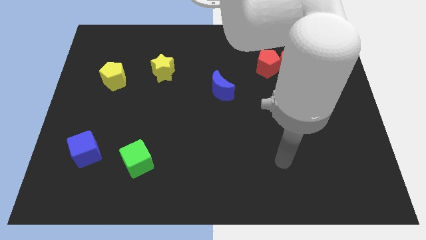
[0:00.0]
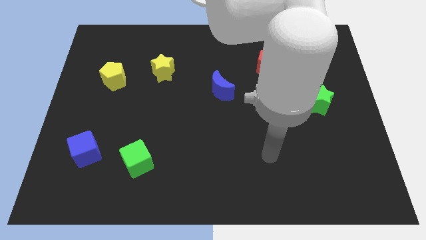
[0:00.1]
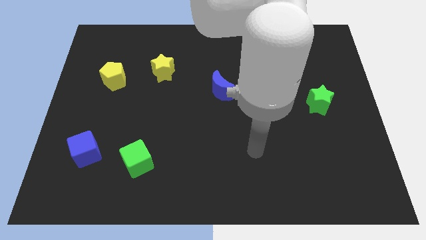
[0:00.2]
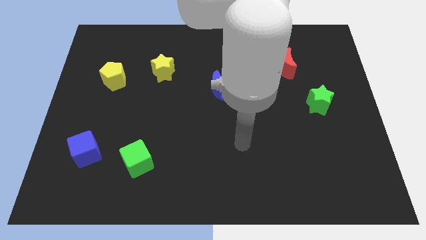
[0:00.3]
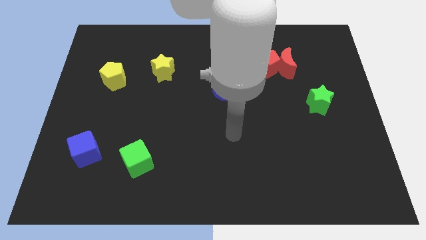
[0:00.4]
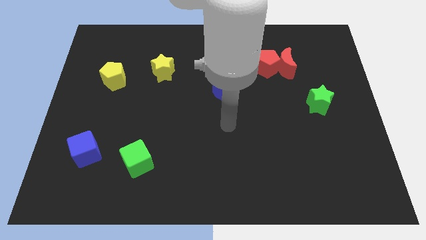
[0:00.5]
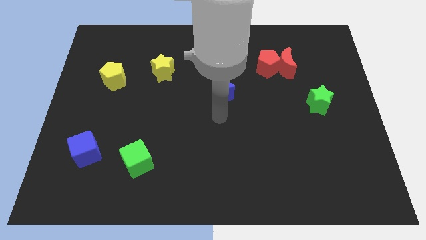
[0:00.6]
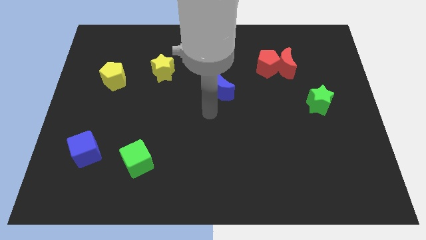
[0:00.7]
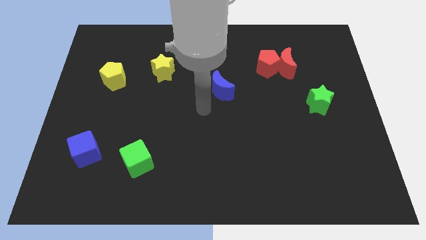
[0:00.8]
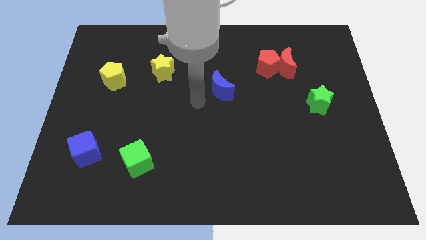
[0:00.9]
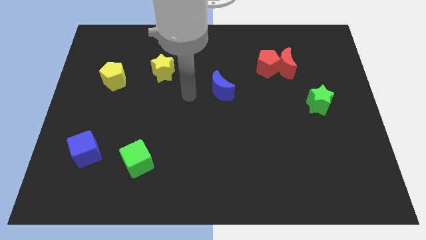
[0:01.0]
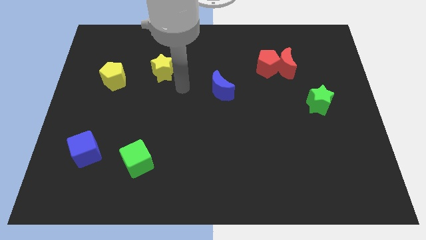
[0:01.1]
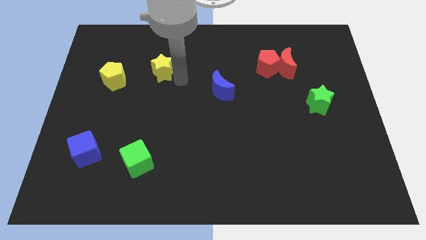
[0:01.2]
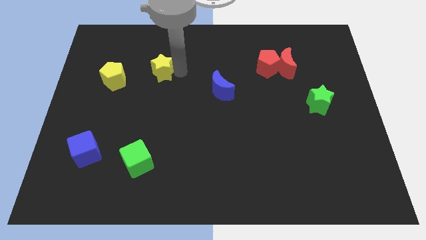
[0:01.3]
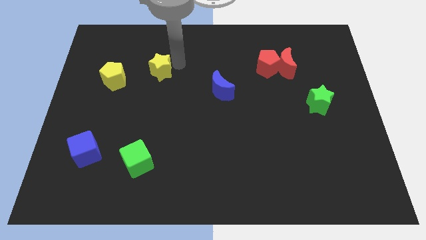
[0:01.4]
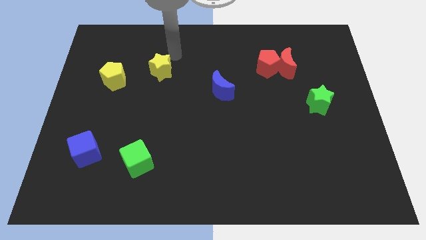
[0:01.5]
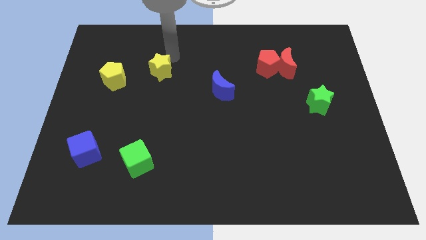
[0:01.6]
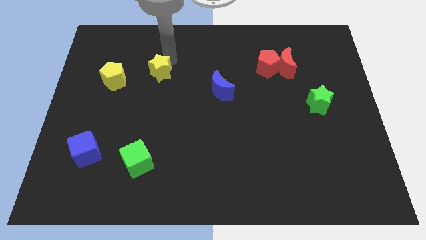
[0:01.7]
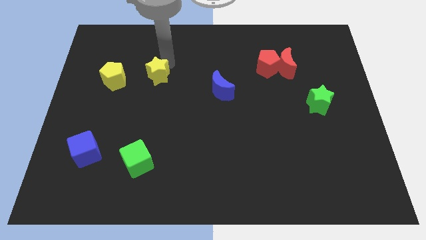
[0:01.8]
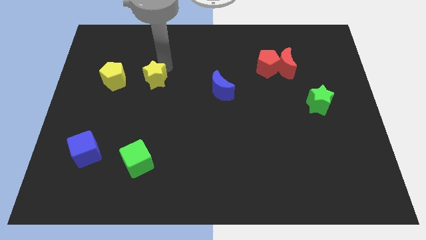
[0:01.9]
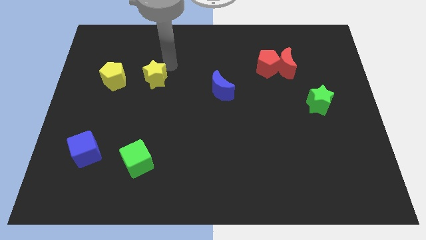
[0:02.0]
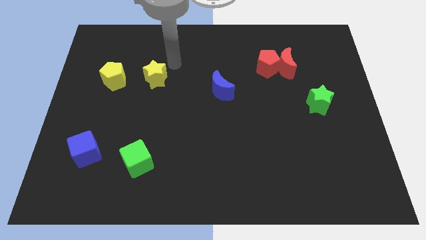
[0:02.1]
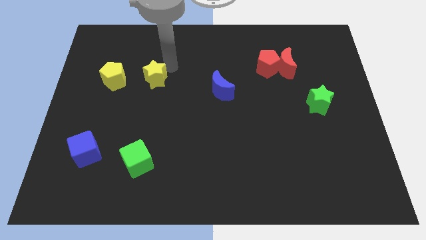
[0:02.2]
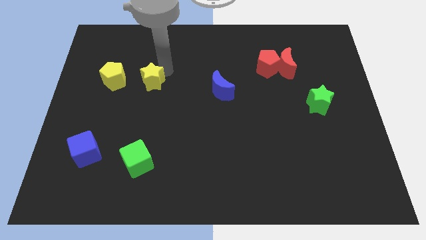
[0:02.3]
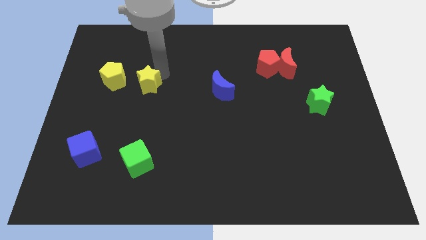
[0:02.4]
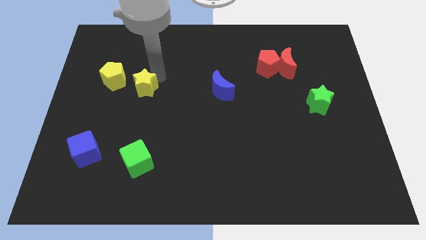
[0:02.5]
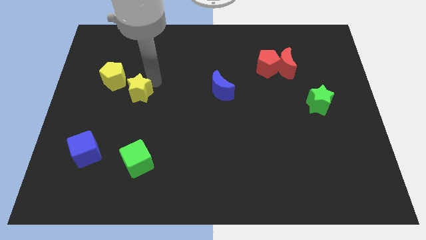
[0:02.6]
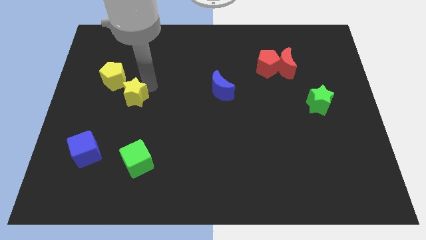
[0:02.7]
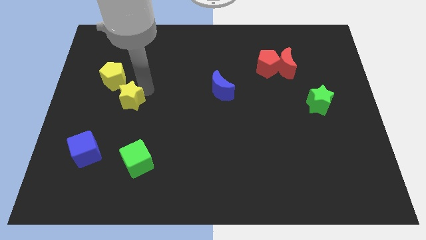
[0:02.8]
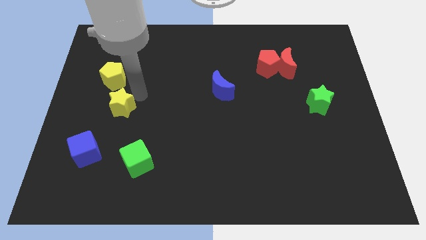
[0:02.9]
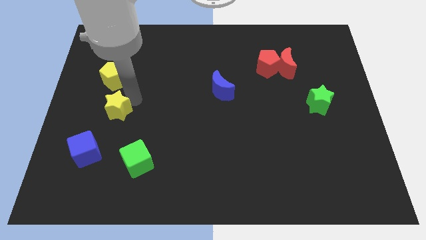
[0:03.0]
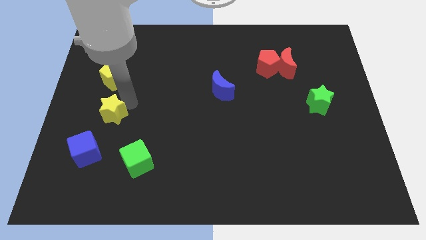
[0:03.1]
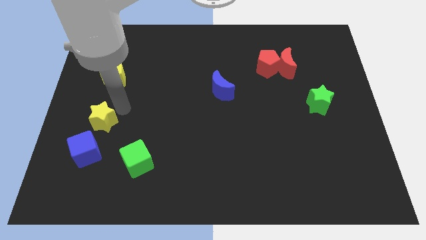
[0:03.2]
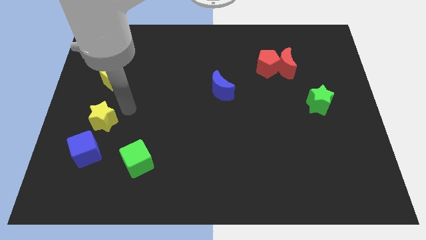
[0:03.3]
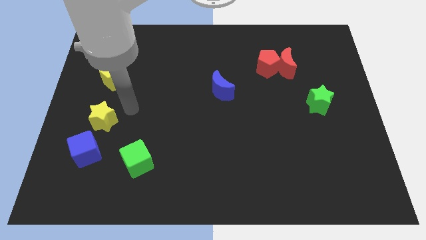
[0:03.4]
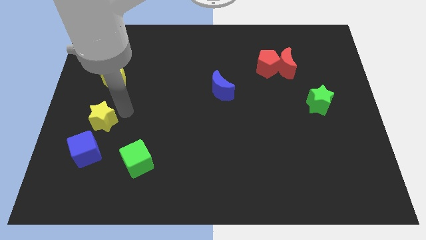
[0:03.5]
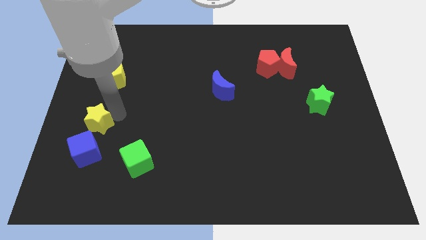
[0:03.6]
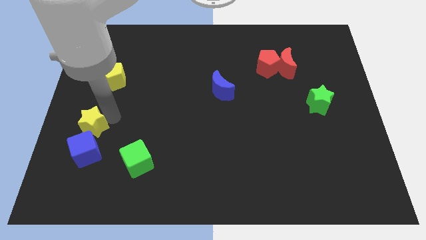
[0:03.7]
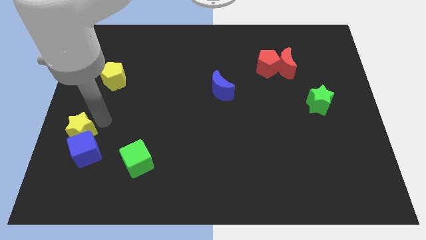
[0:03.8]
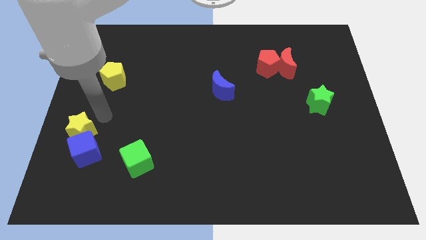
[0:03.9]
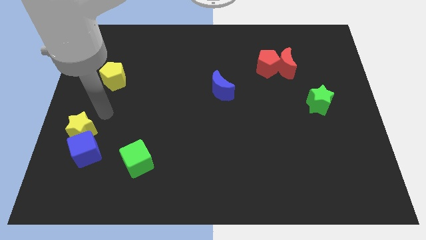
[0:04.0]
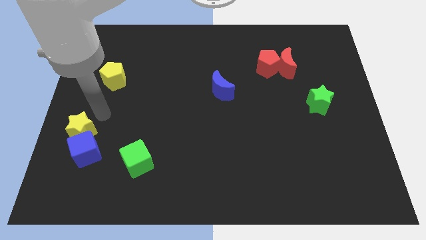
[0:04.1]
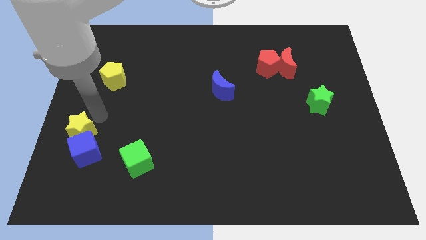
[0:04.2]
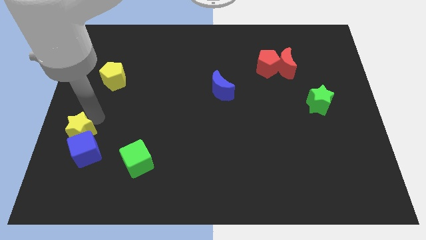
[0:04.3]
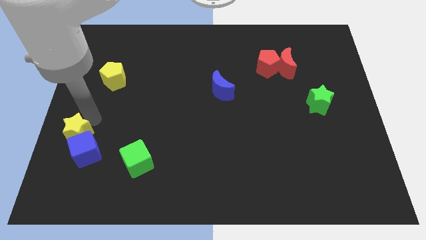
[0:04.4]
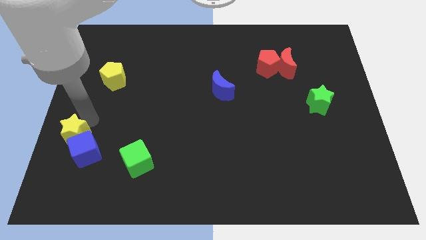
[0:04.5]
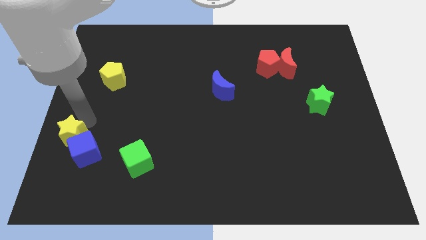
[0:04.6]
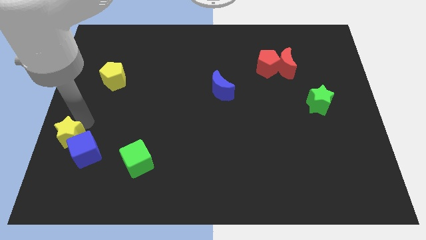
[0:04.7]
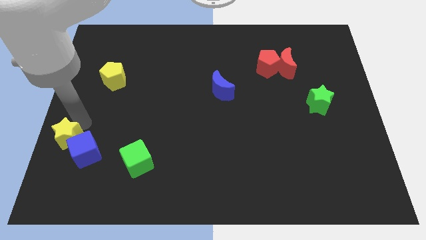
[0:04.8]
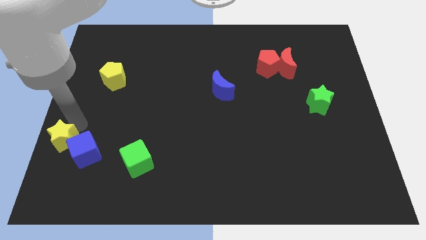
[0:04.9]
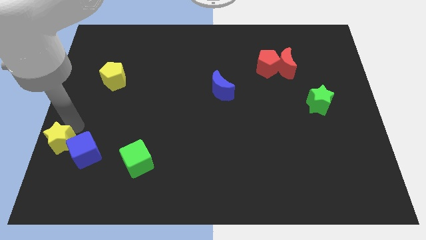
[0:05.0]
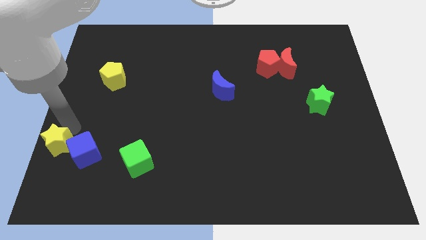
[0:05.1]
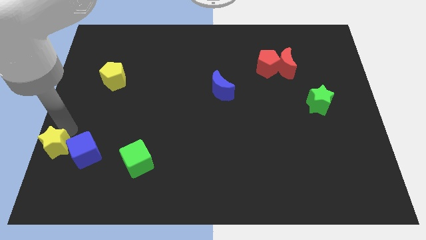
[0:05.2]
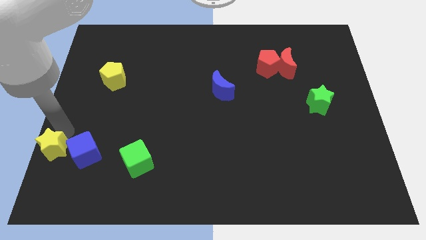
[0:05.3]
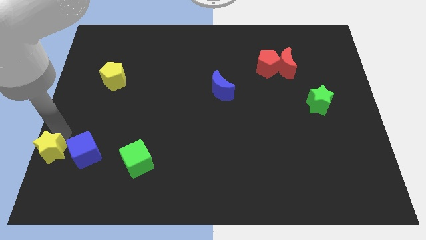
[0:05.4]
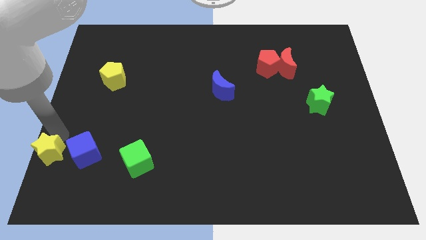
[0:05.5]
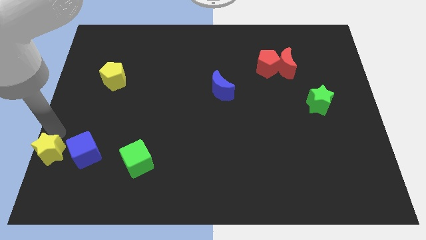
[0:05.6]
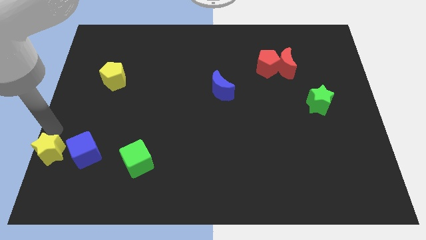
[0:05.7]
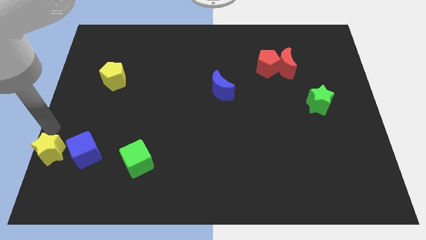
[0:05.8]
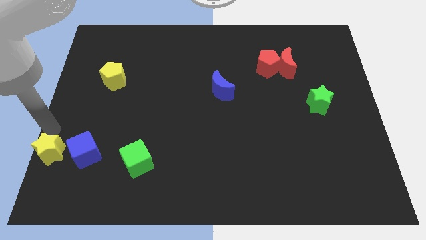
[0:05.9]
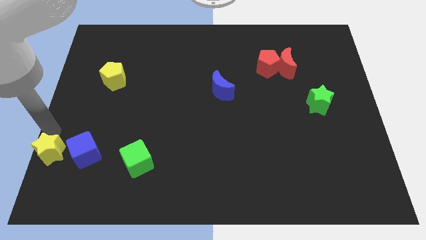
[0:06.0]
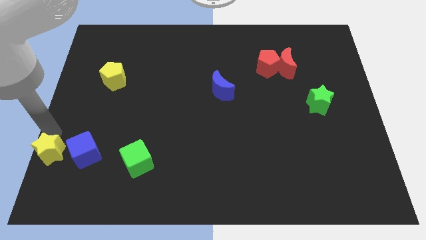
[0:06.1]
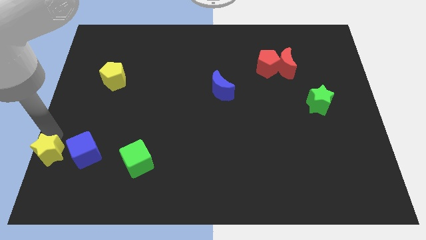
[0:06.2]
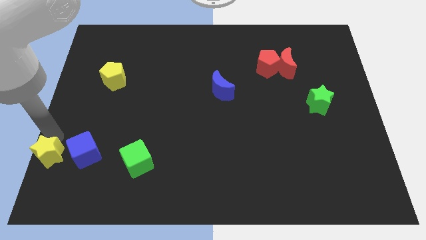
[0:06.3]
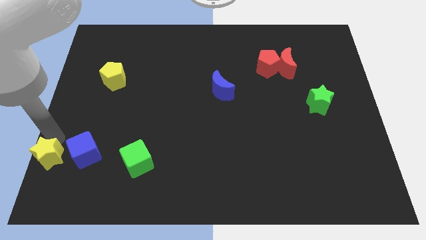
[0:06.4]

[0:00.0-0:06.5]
slide the yellow star to the bottom left corner
